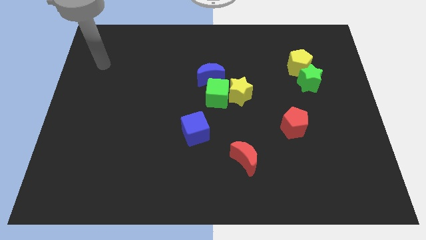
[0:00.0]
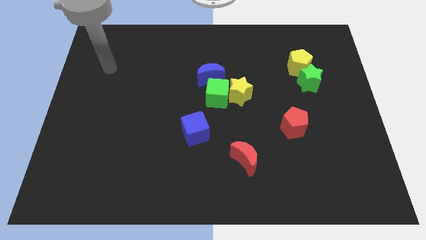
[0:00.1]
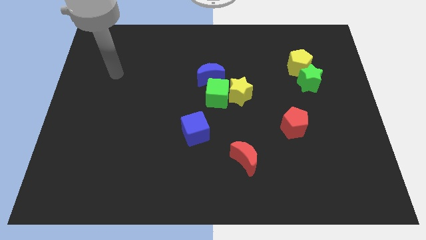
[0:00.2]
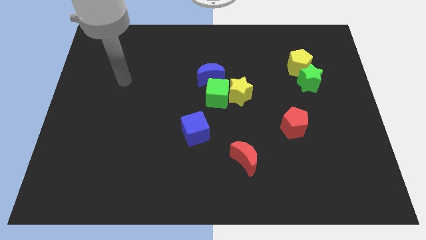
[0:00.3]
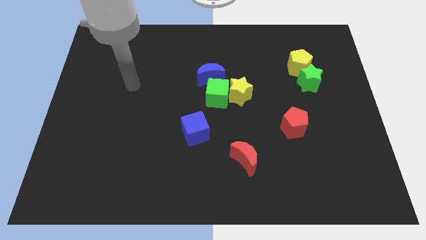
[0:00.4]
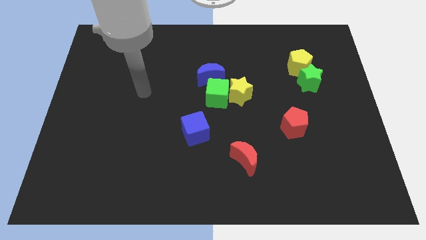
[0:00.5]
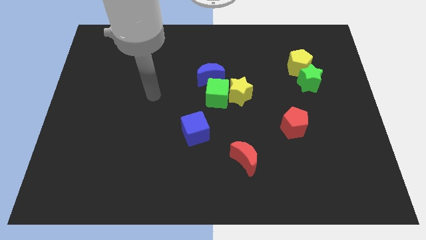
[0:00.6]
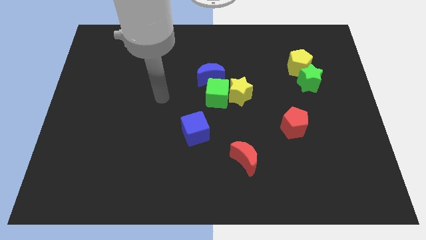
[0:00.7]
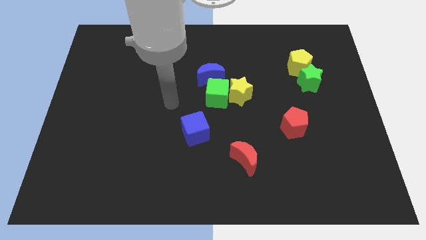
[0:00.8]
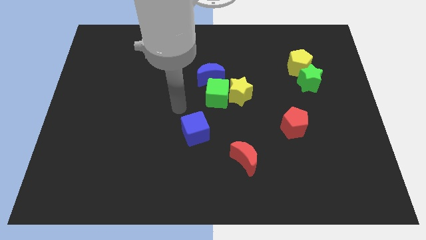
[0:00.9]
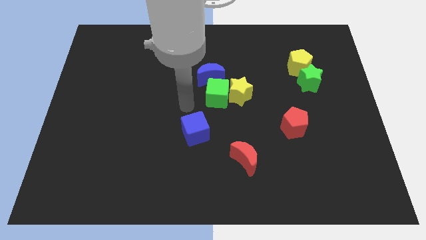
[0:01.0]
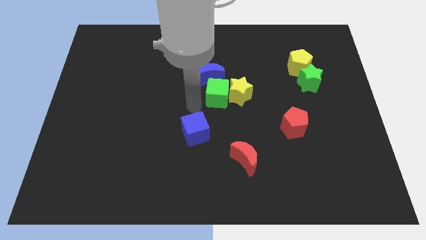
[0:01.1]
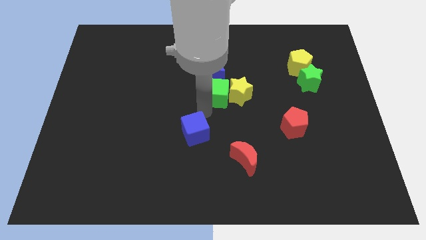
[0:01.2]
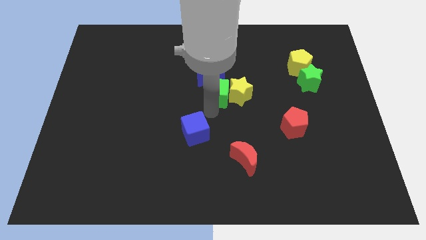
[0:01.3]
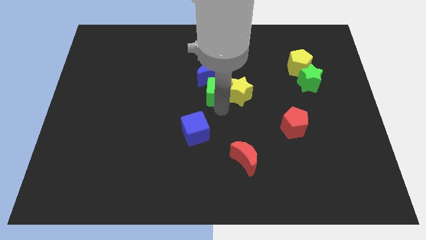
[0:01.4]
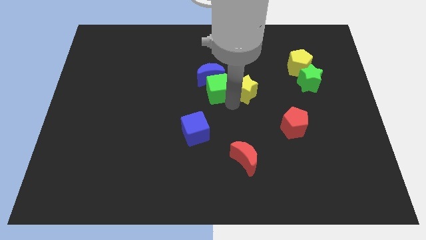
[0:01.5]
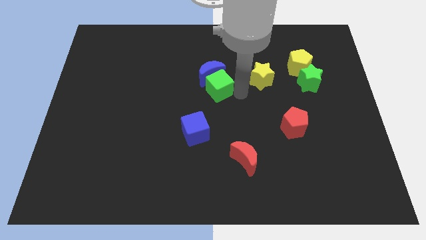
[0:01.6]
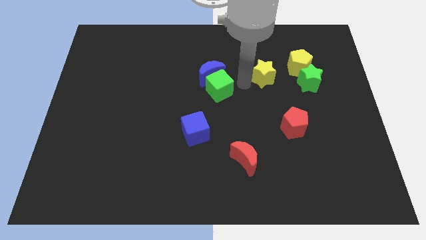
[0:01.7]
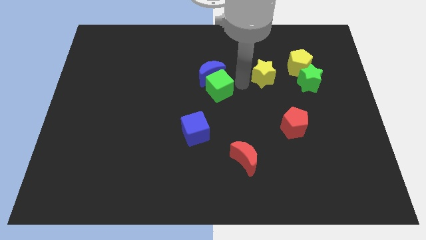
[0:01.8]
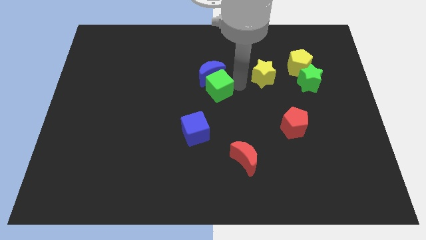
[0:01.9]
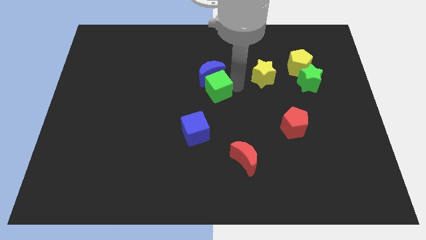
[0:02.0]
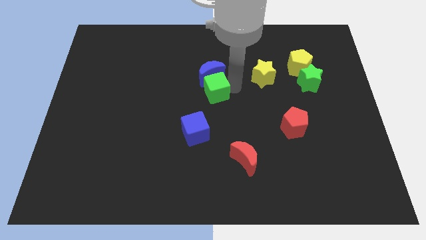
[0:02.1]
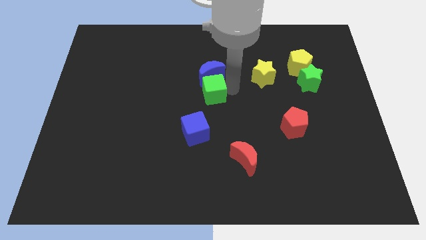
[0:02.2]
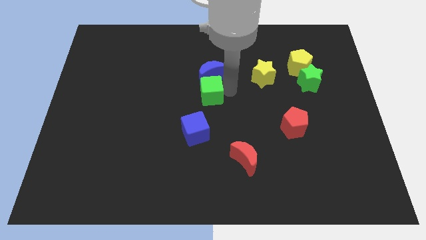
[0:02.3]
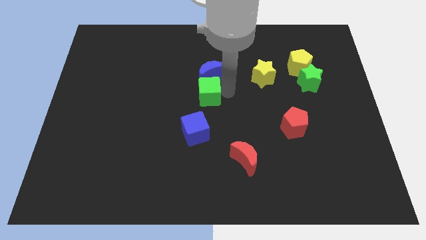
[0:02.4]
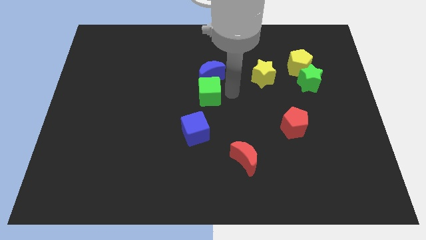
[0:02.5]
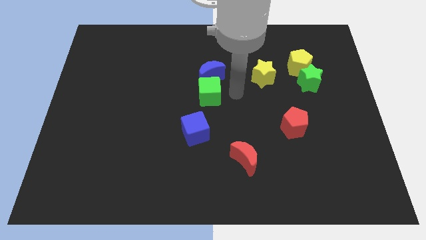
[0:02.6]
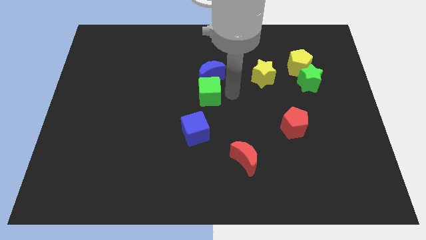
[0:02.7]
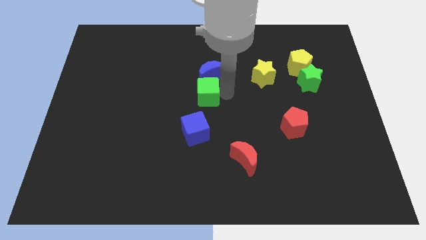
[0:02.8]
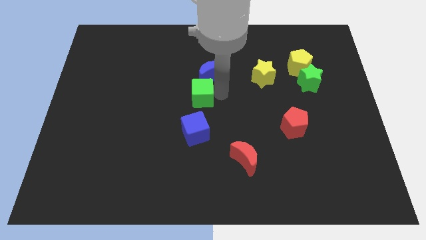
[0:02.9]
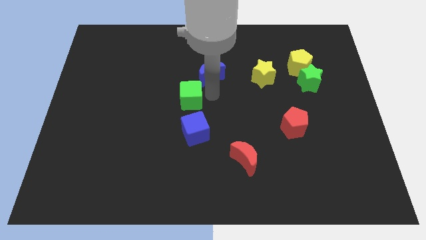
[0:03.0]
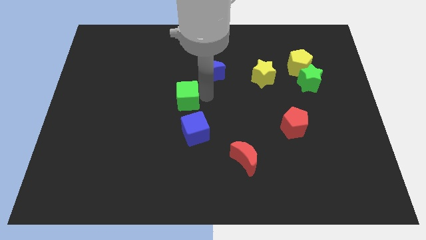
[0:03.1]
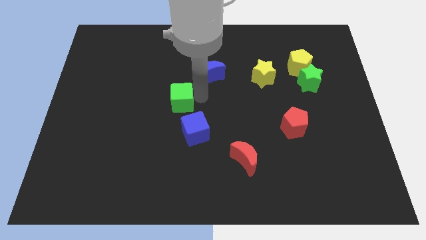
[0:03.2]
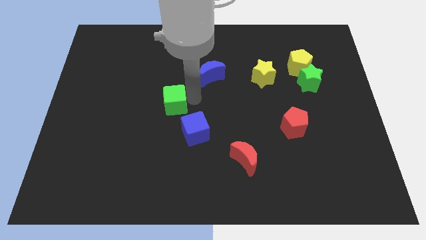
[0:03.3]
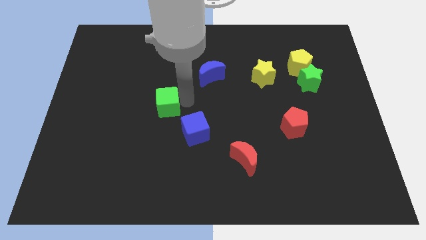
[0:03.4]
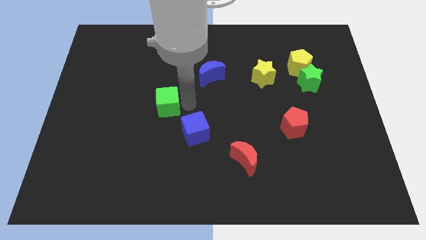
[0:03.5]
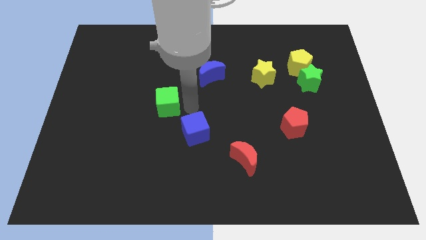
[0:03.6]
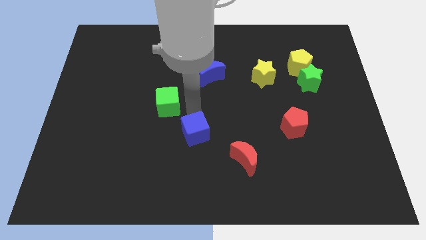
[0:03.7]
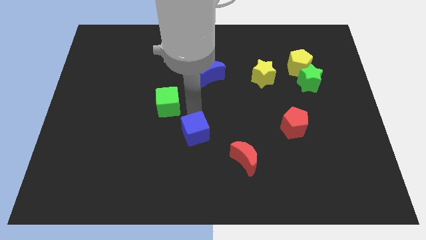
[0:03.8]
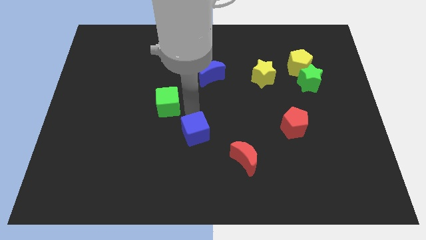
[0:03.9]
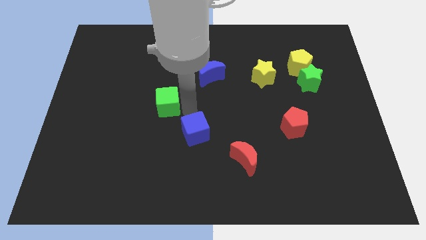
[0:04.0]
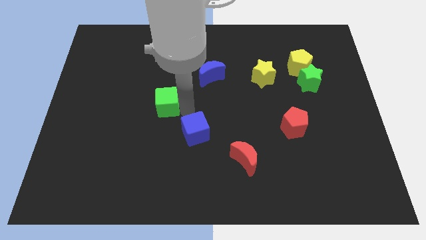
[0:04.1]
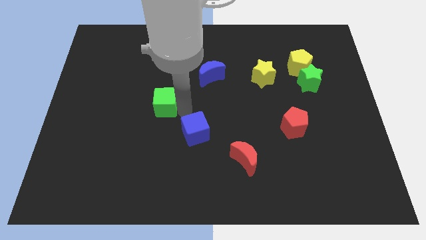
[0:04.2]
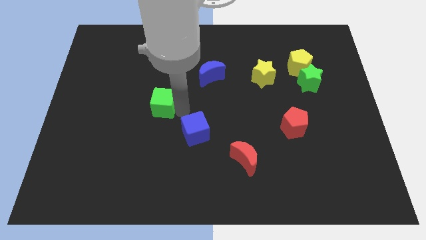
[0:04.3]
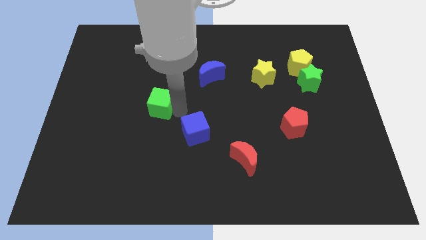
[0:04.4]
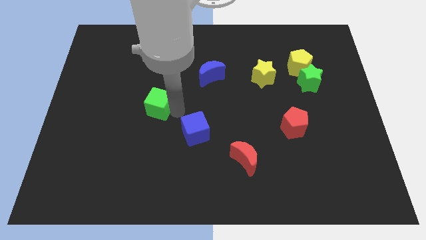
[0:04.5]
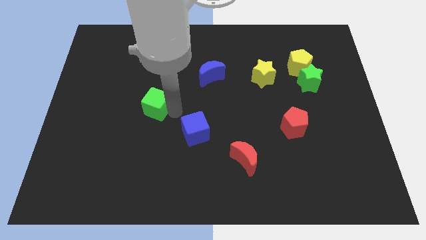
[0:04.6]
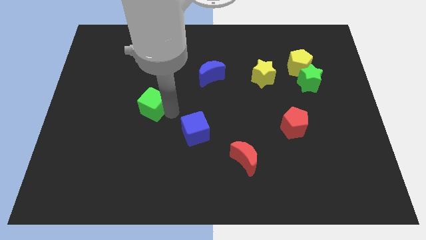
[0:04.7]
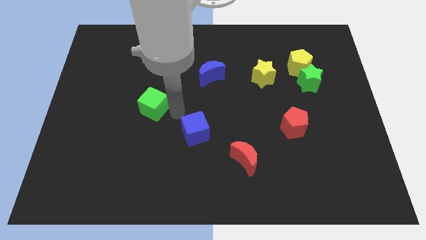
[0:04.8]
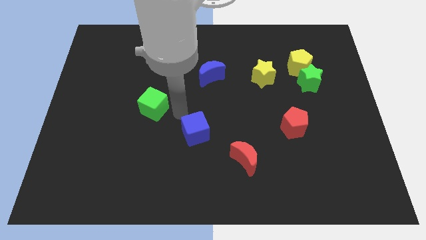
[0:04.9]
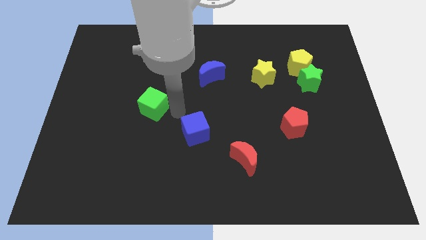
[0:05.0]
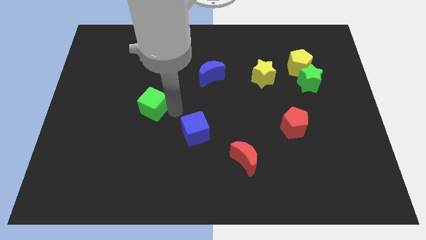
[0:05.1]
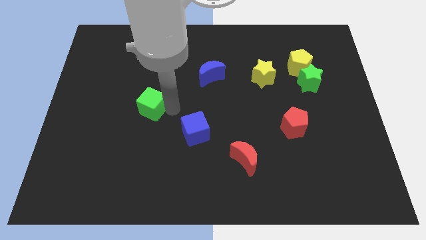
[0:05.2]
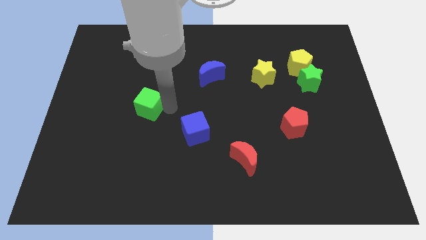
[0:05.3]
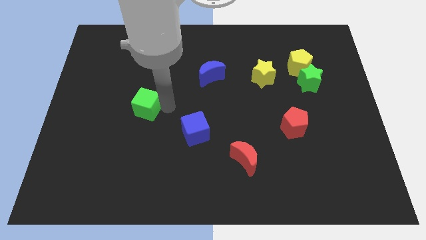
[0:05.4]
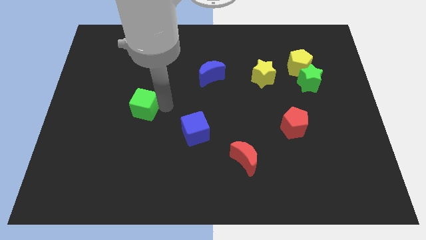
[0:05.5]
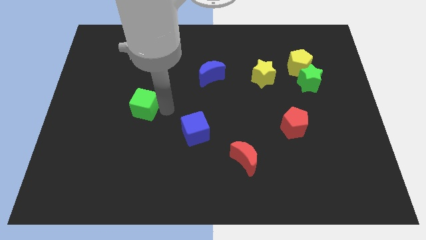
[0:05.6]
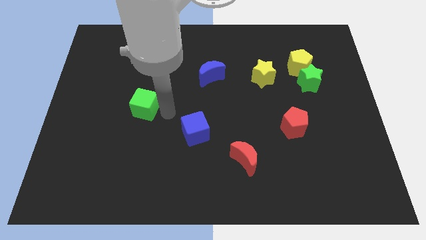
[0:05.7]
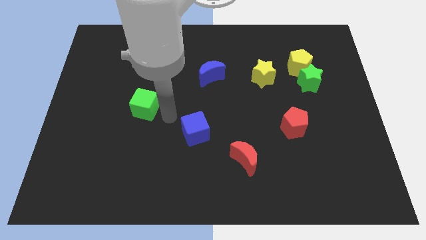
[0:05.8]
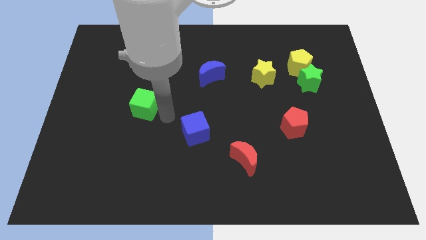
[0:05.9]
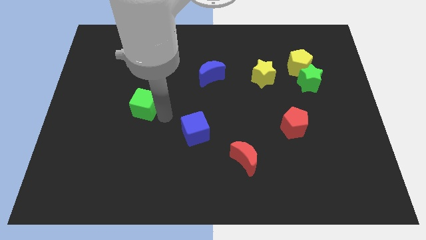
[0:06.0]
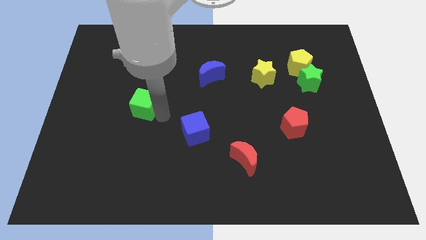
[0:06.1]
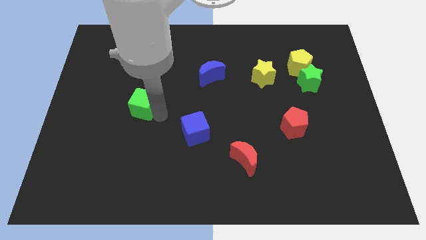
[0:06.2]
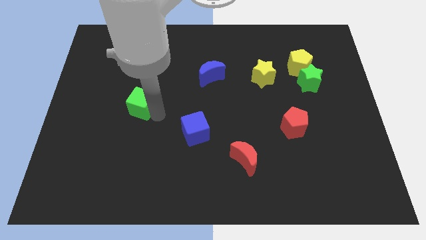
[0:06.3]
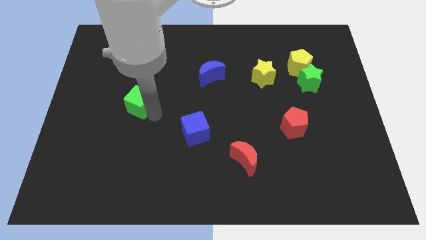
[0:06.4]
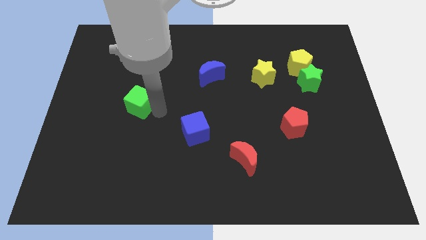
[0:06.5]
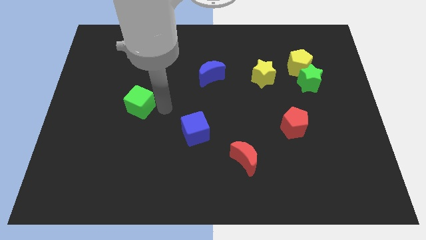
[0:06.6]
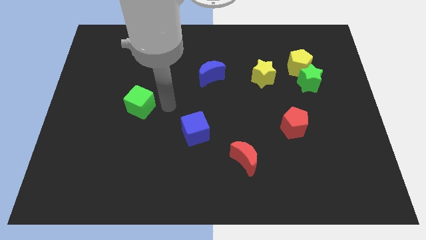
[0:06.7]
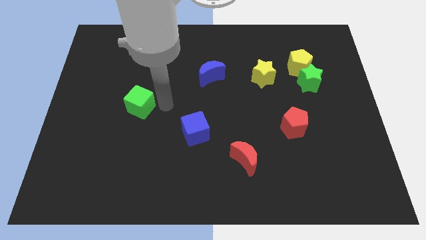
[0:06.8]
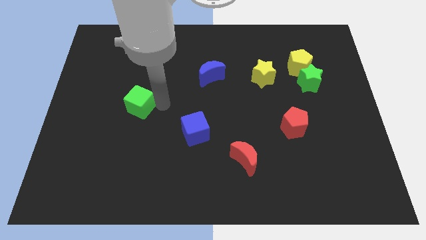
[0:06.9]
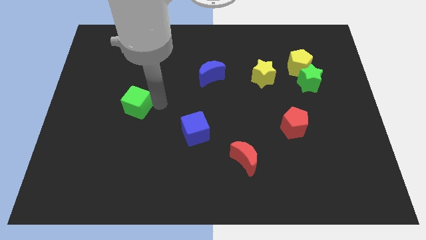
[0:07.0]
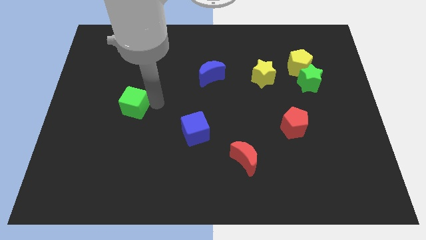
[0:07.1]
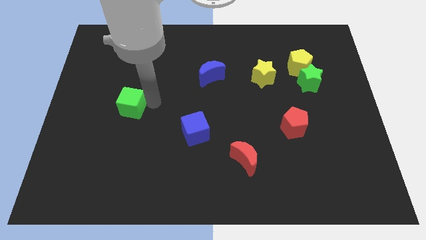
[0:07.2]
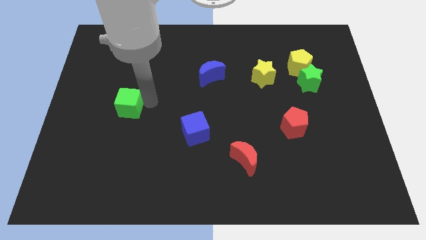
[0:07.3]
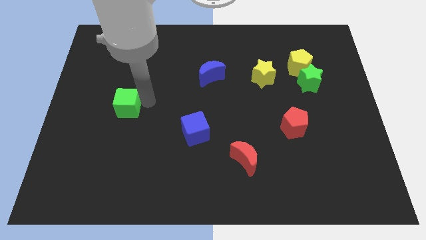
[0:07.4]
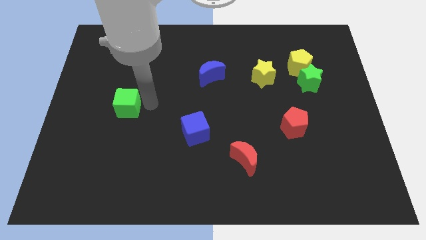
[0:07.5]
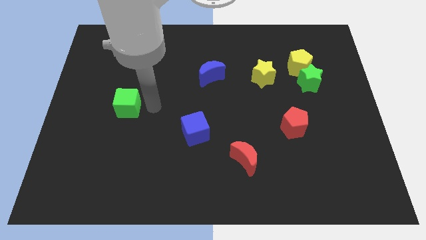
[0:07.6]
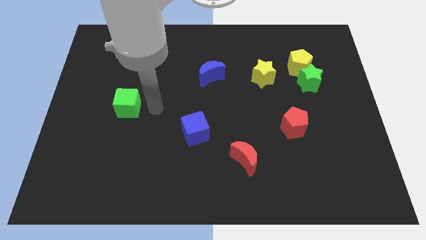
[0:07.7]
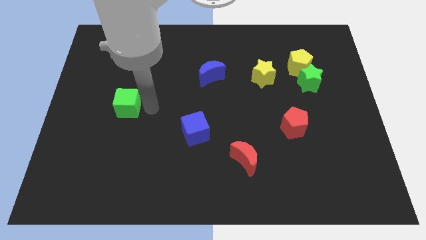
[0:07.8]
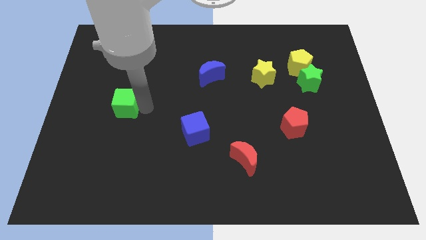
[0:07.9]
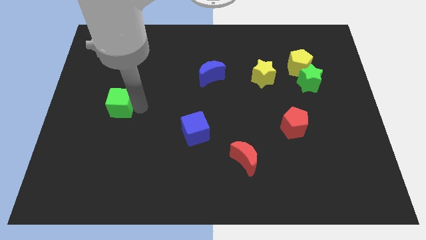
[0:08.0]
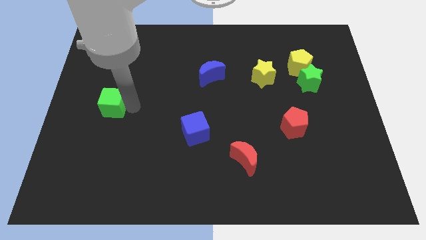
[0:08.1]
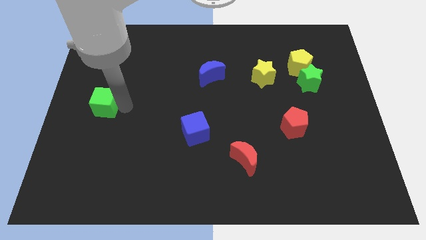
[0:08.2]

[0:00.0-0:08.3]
move the green cube to the left side of the board
